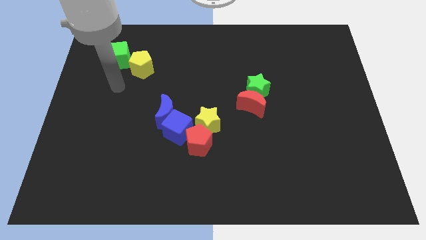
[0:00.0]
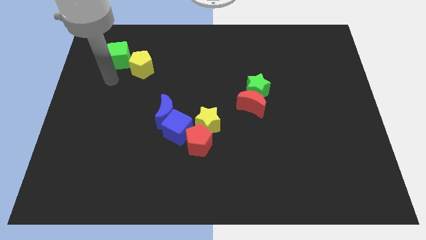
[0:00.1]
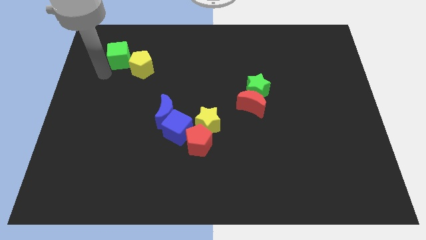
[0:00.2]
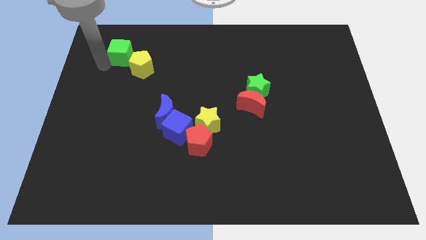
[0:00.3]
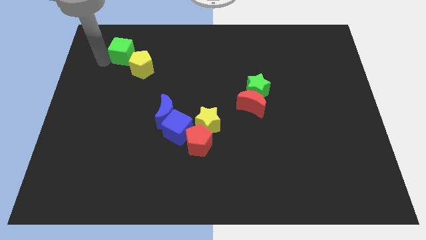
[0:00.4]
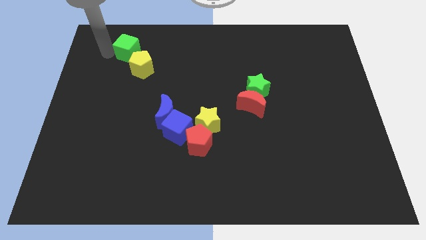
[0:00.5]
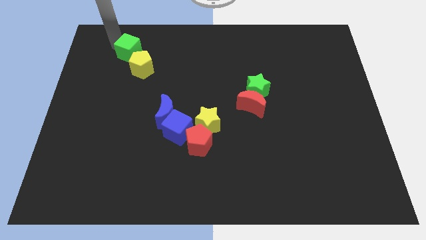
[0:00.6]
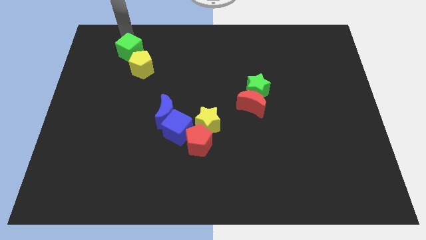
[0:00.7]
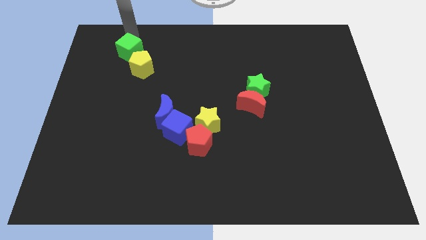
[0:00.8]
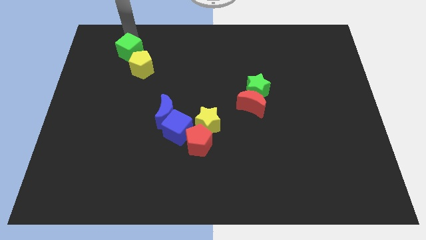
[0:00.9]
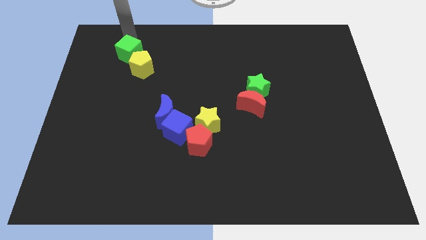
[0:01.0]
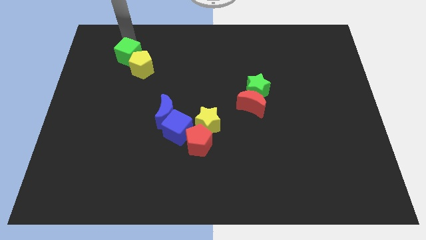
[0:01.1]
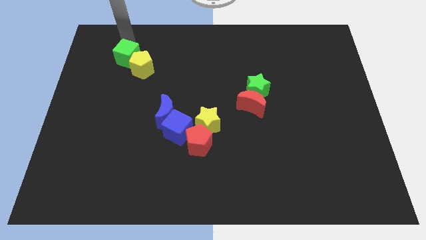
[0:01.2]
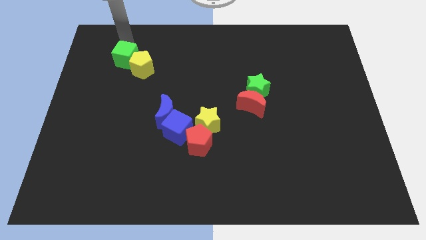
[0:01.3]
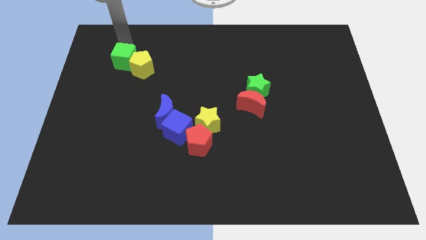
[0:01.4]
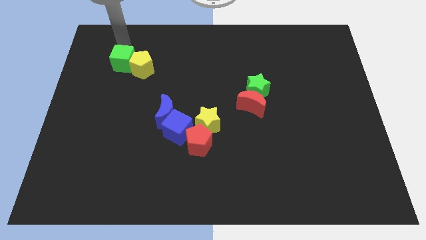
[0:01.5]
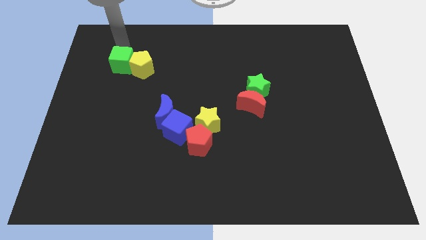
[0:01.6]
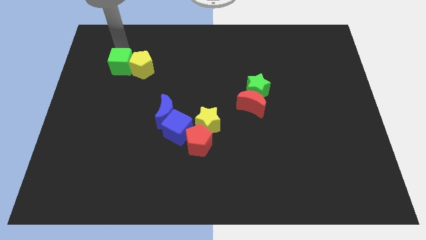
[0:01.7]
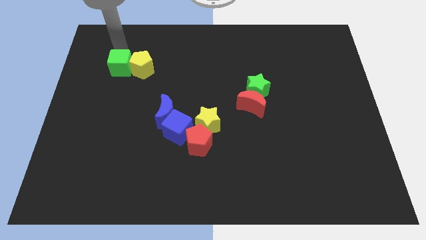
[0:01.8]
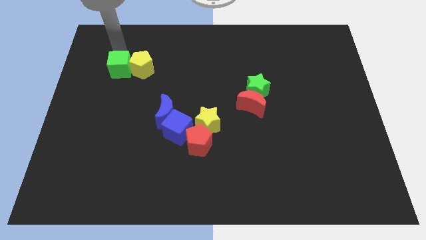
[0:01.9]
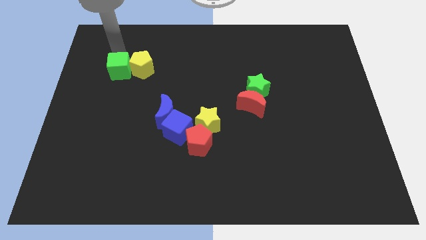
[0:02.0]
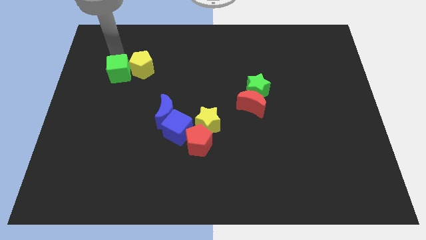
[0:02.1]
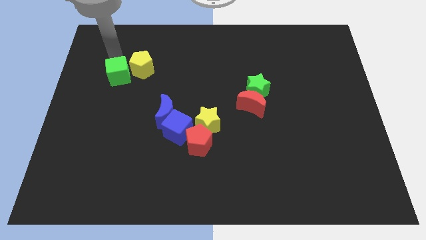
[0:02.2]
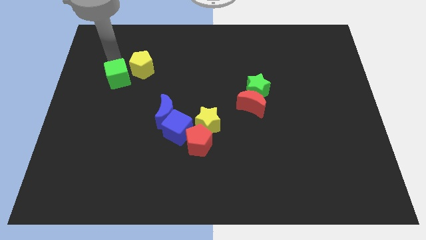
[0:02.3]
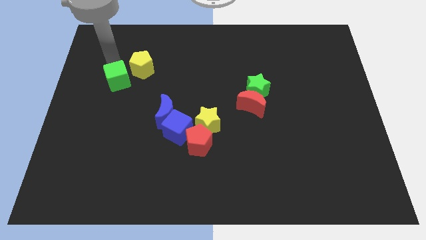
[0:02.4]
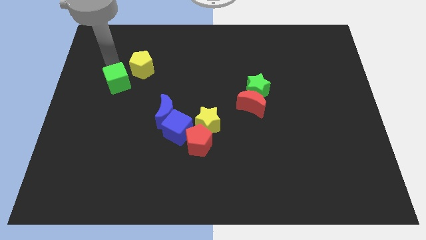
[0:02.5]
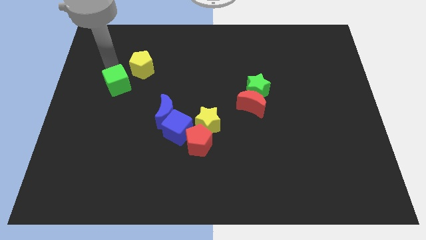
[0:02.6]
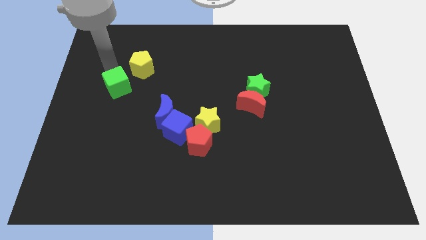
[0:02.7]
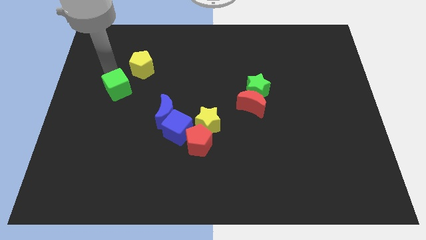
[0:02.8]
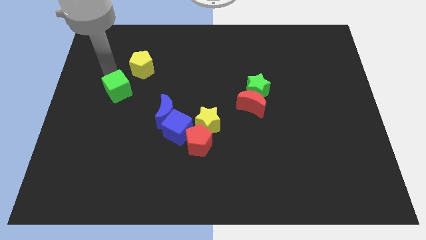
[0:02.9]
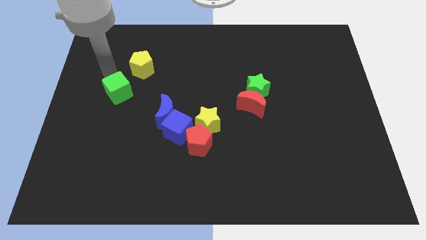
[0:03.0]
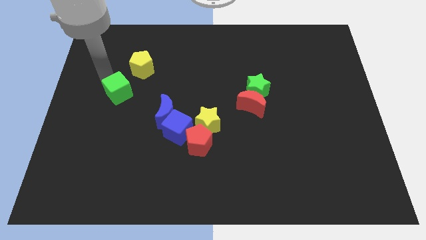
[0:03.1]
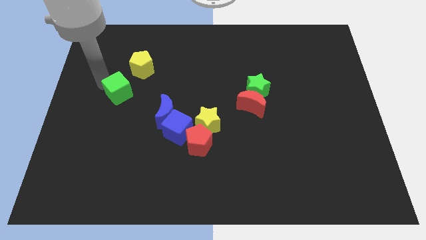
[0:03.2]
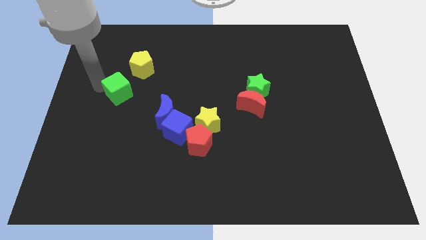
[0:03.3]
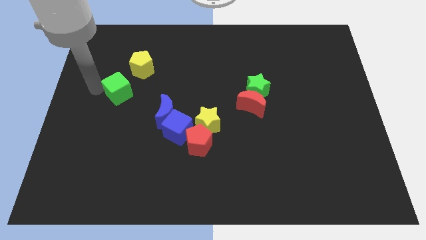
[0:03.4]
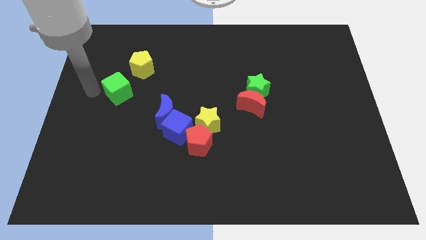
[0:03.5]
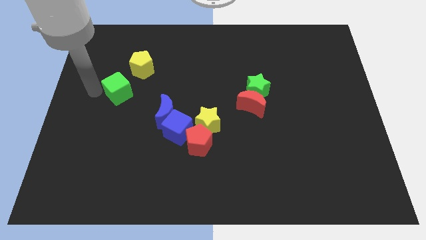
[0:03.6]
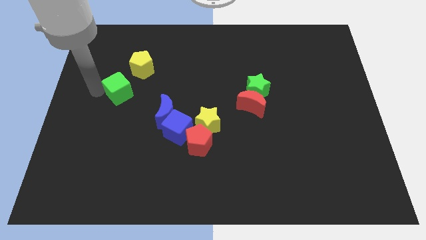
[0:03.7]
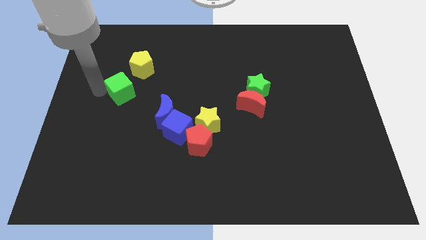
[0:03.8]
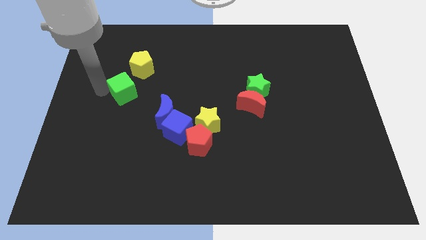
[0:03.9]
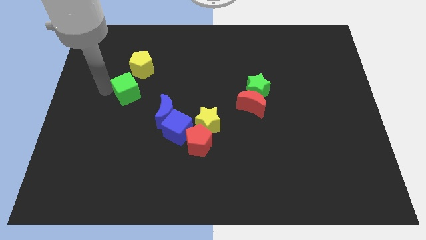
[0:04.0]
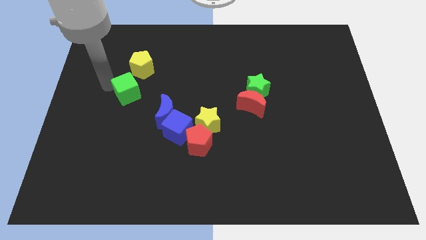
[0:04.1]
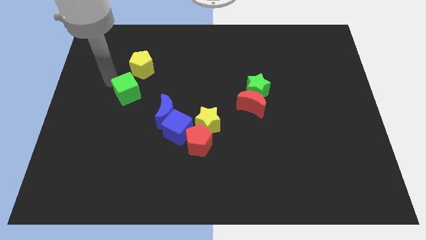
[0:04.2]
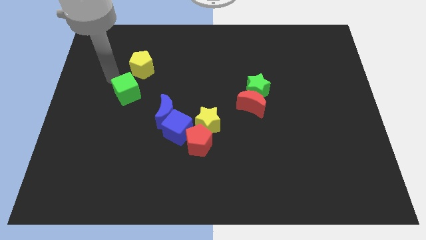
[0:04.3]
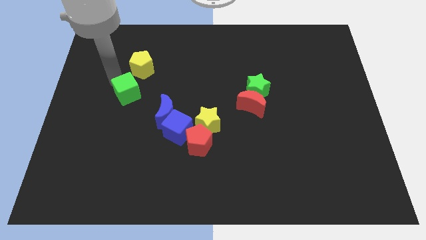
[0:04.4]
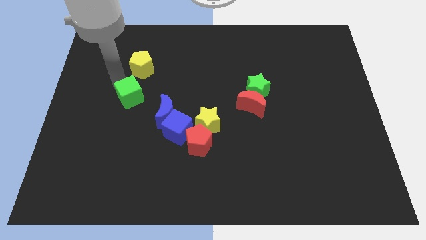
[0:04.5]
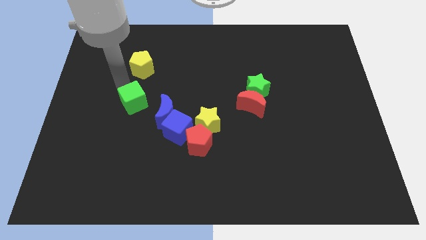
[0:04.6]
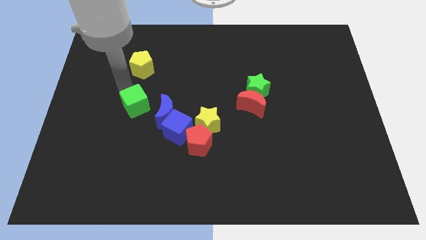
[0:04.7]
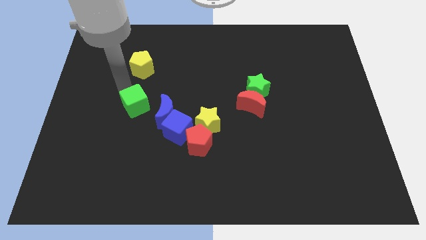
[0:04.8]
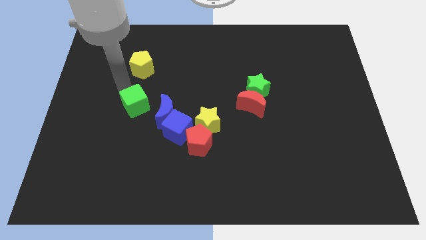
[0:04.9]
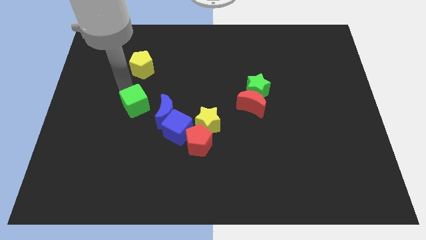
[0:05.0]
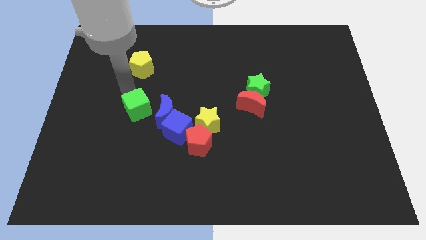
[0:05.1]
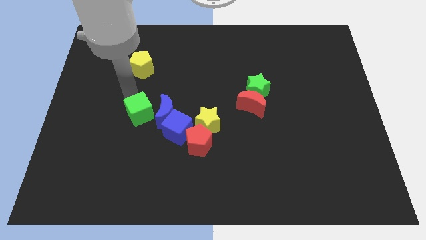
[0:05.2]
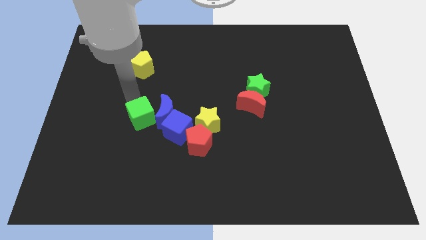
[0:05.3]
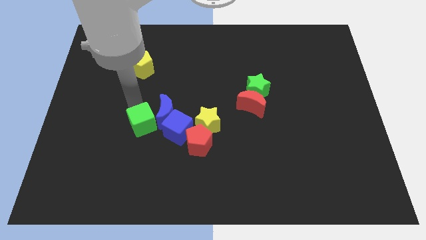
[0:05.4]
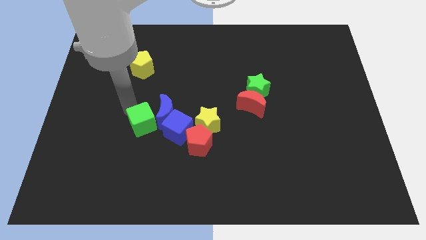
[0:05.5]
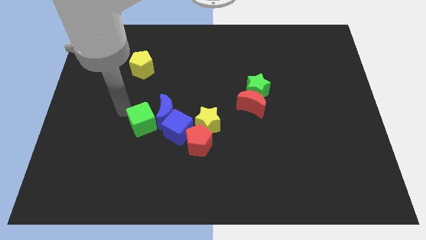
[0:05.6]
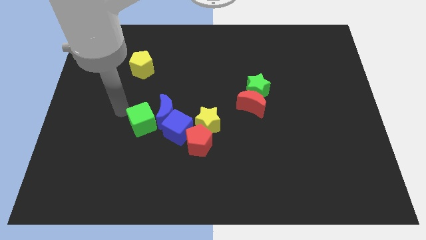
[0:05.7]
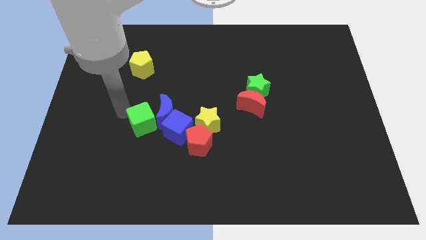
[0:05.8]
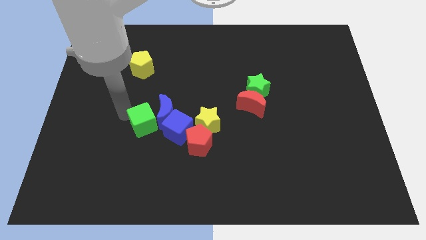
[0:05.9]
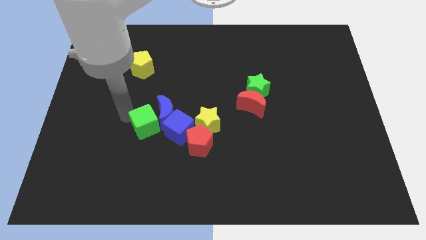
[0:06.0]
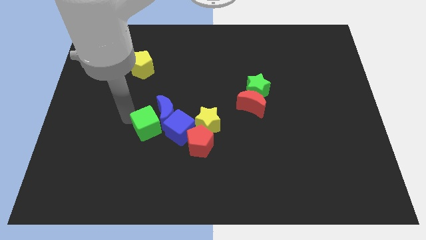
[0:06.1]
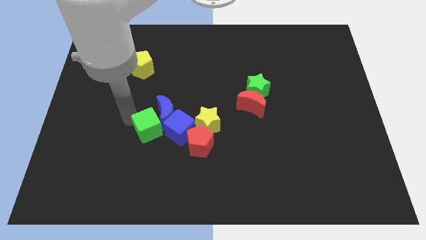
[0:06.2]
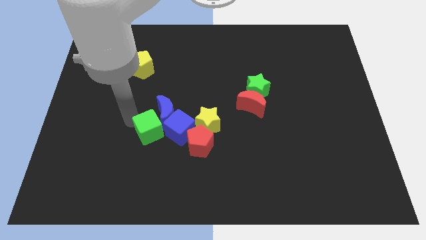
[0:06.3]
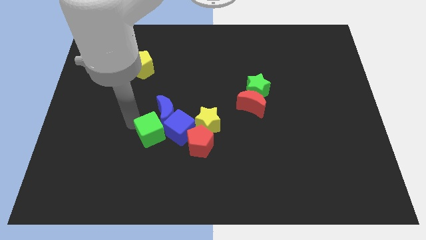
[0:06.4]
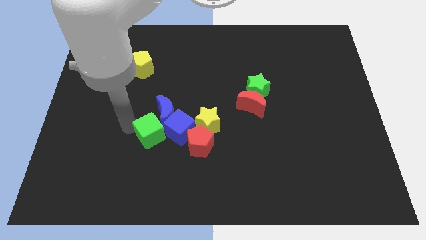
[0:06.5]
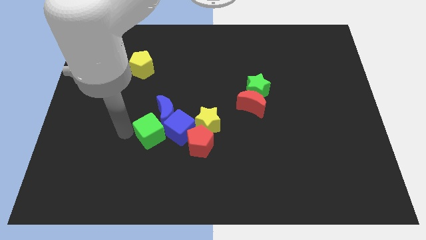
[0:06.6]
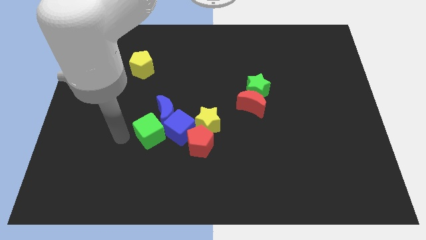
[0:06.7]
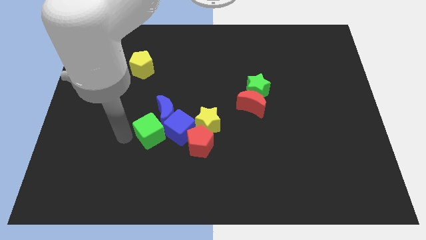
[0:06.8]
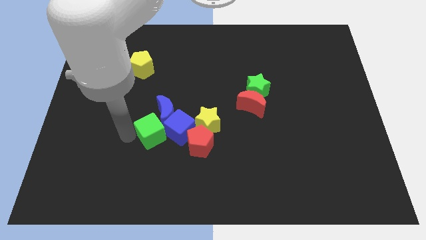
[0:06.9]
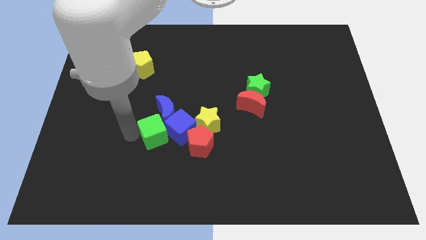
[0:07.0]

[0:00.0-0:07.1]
push the green cube towards the blue cube
